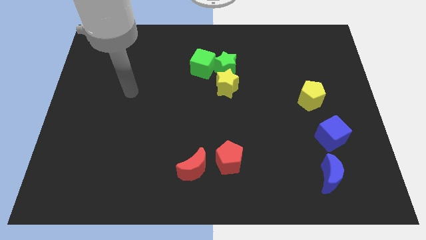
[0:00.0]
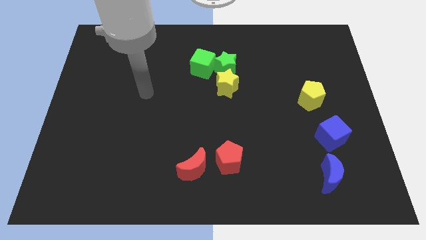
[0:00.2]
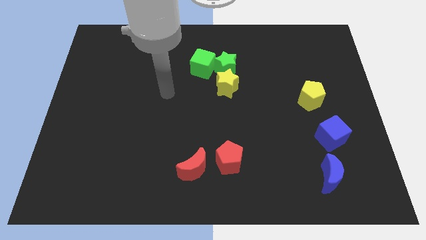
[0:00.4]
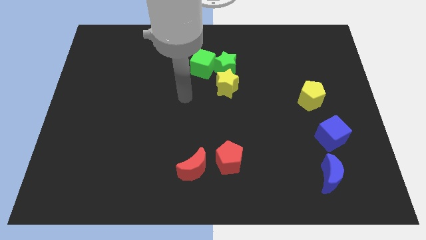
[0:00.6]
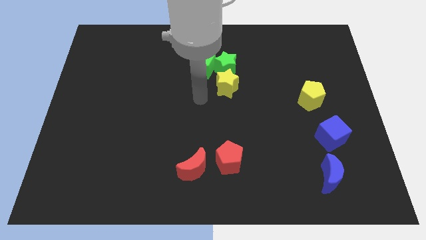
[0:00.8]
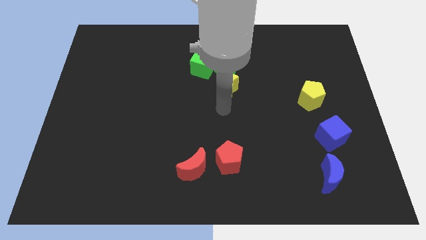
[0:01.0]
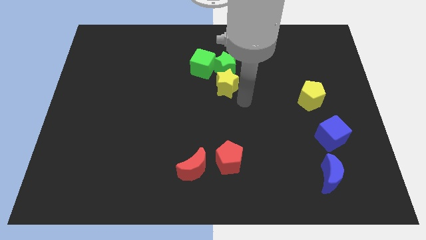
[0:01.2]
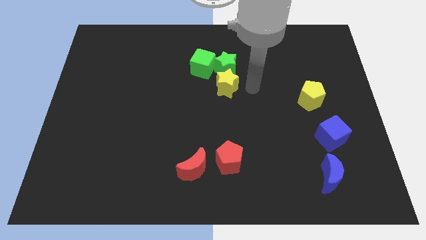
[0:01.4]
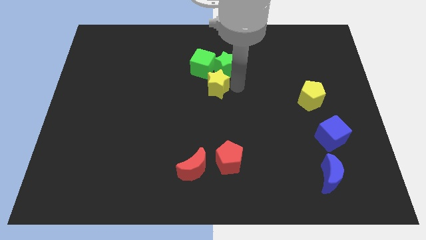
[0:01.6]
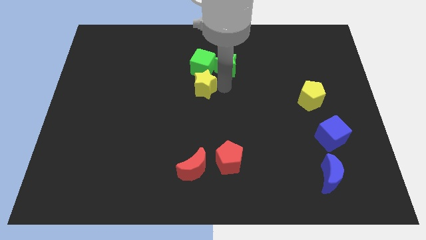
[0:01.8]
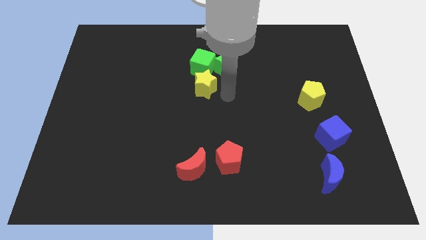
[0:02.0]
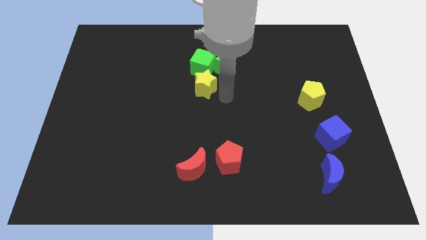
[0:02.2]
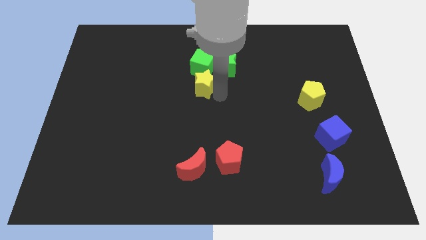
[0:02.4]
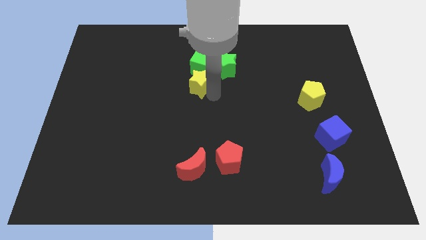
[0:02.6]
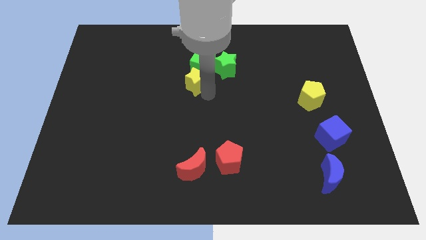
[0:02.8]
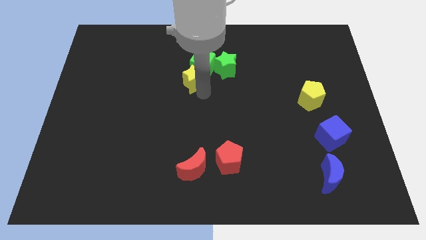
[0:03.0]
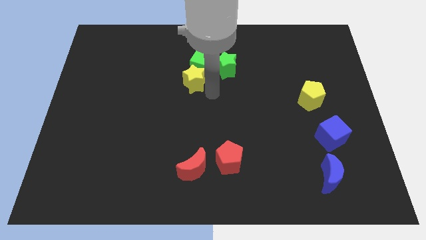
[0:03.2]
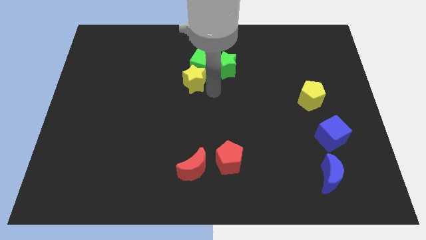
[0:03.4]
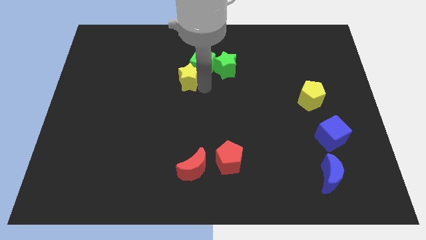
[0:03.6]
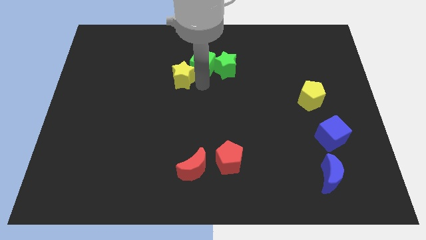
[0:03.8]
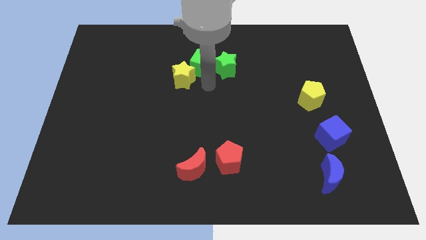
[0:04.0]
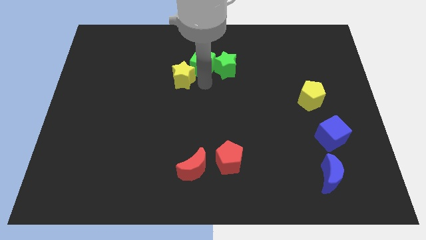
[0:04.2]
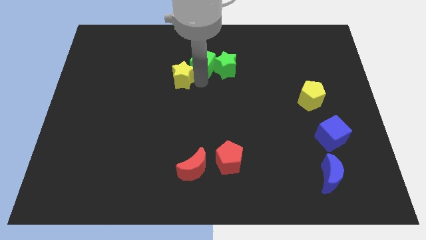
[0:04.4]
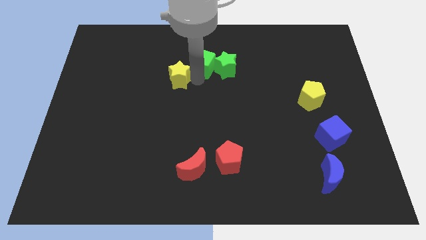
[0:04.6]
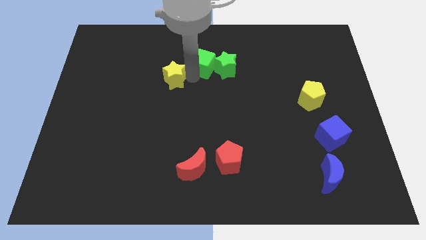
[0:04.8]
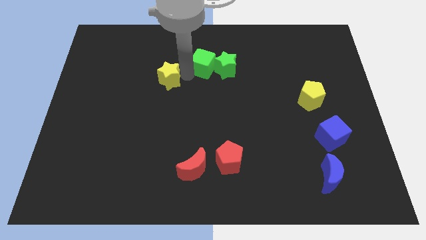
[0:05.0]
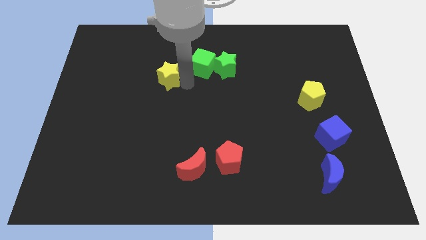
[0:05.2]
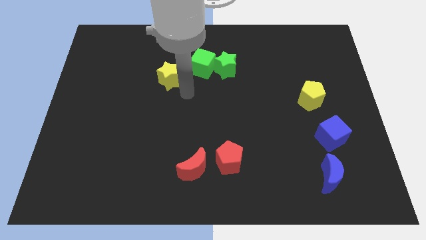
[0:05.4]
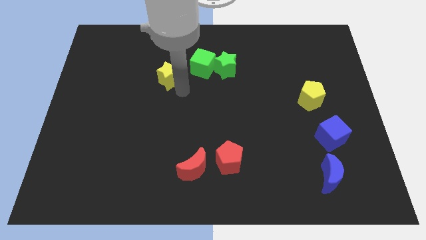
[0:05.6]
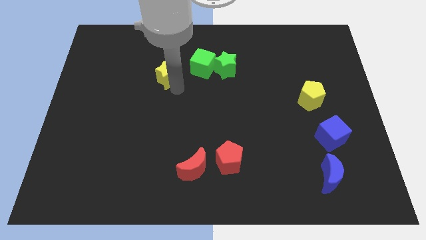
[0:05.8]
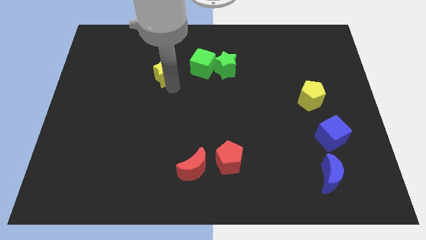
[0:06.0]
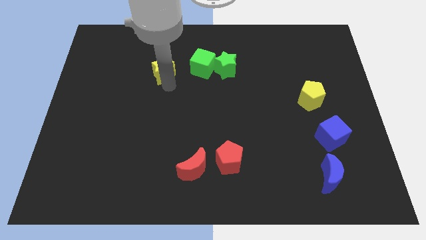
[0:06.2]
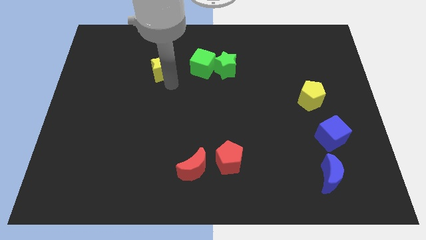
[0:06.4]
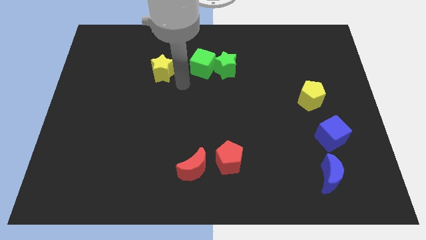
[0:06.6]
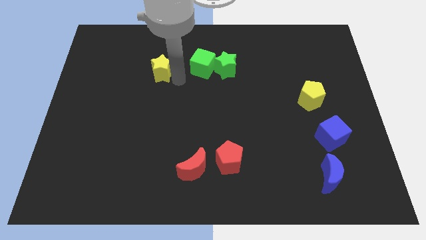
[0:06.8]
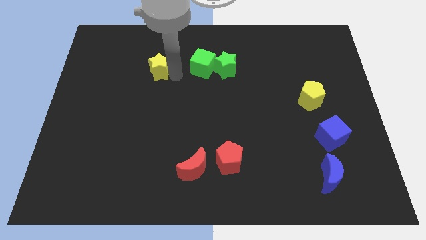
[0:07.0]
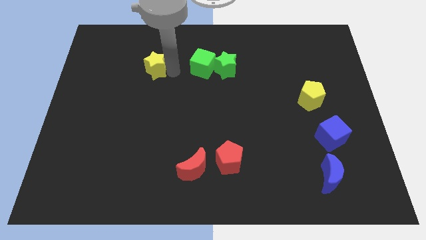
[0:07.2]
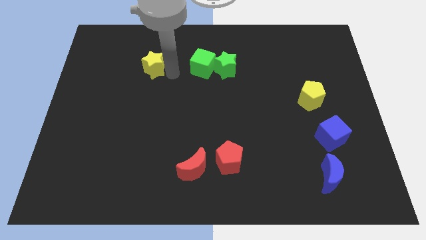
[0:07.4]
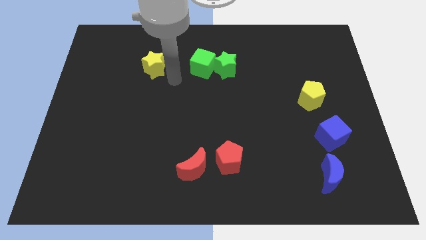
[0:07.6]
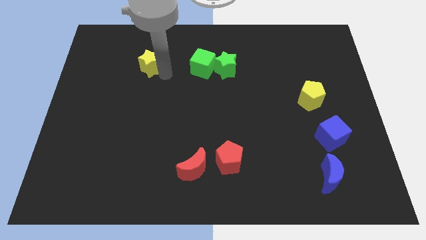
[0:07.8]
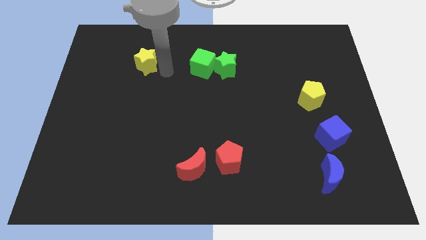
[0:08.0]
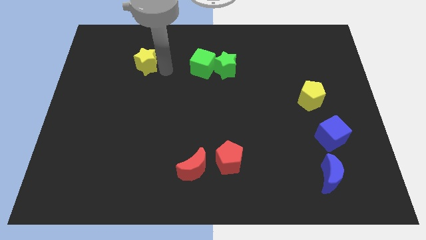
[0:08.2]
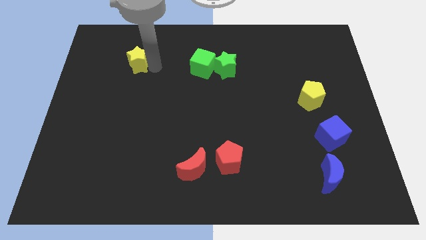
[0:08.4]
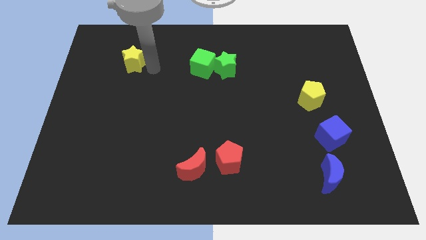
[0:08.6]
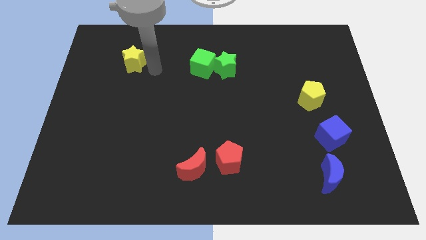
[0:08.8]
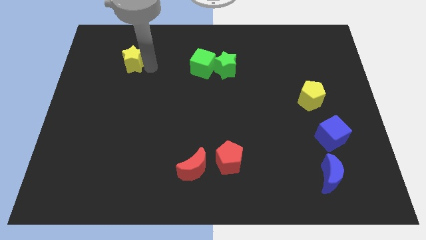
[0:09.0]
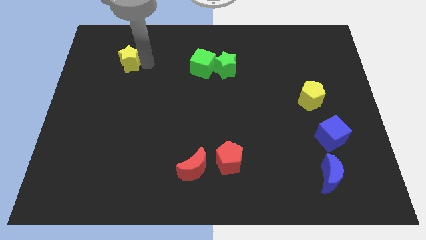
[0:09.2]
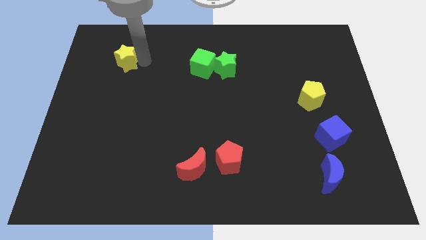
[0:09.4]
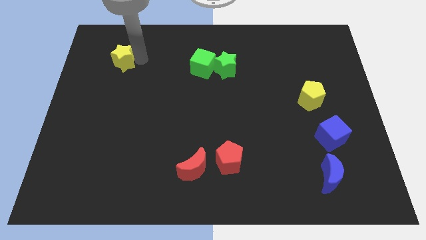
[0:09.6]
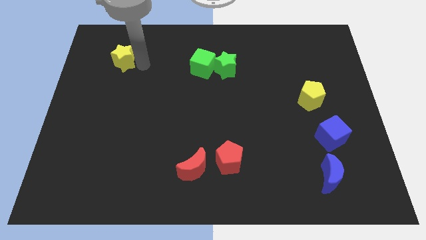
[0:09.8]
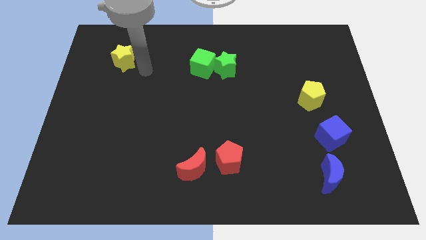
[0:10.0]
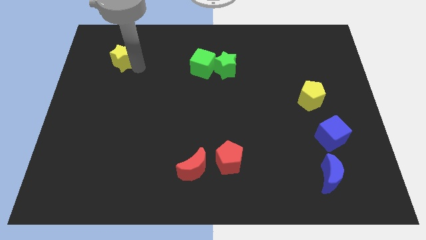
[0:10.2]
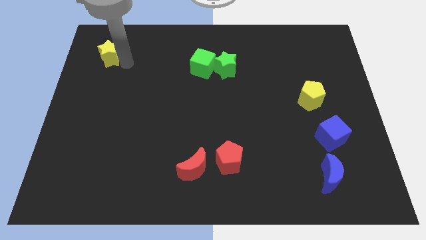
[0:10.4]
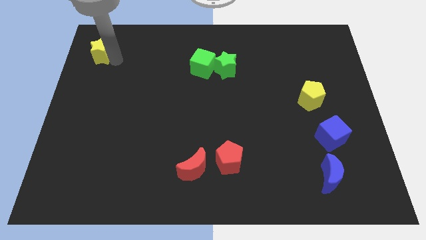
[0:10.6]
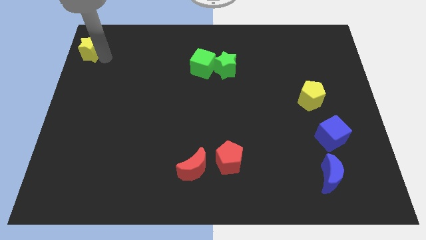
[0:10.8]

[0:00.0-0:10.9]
slide the yellow star to the top left

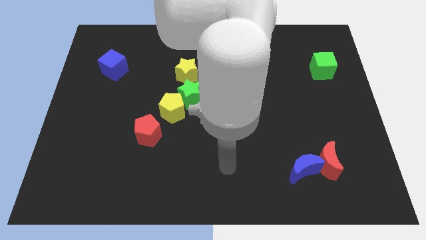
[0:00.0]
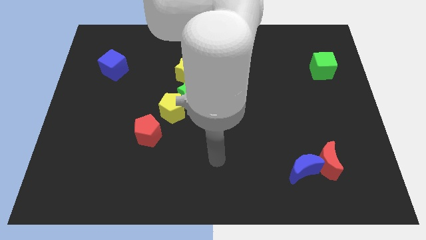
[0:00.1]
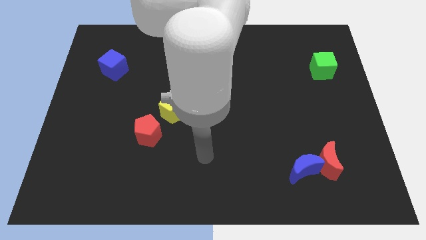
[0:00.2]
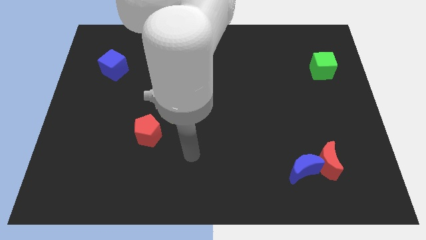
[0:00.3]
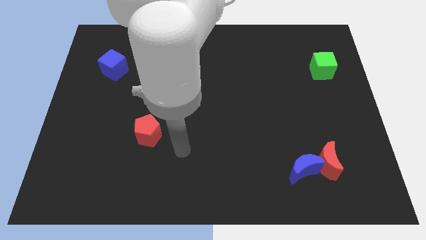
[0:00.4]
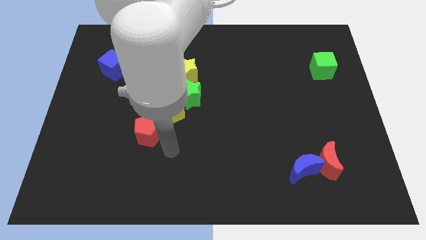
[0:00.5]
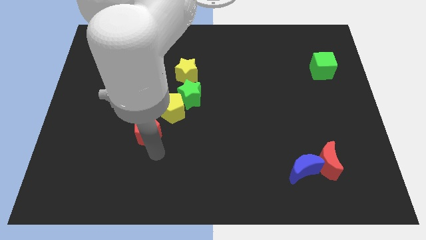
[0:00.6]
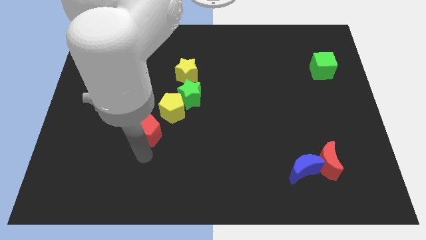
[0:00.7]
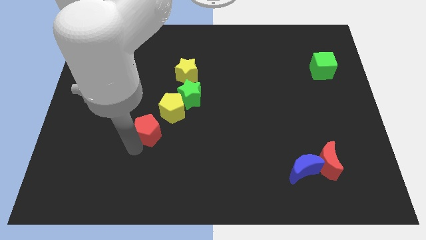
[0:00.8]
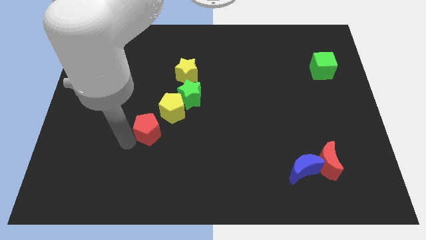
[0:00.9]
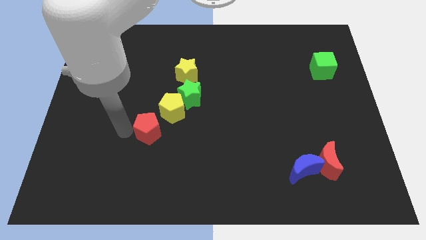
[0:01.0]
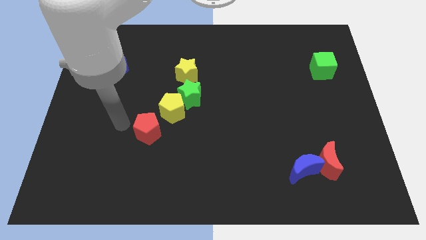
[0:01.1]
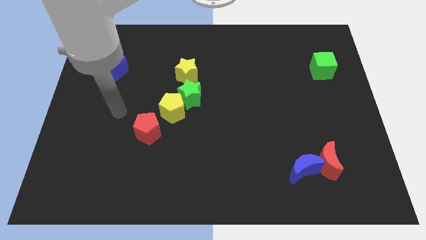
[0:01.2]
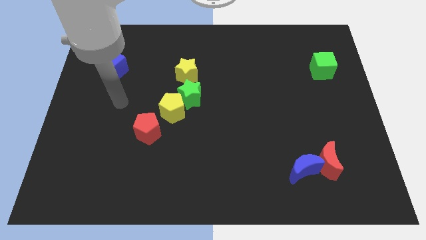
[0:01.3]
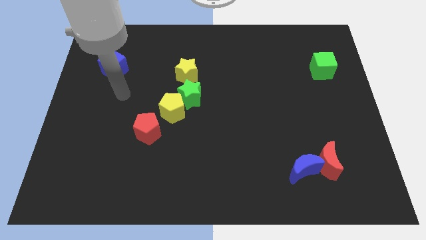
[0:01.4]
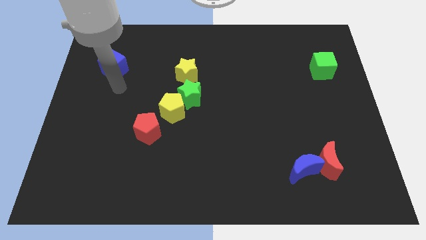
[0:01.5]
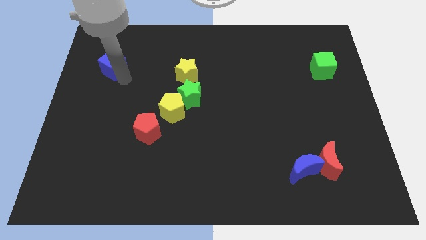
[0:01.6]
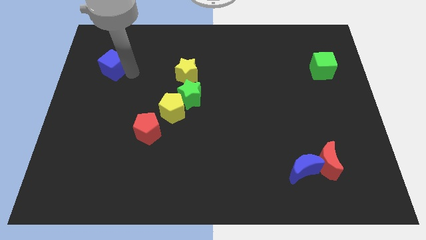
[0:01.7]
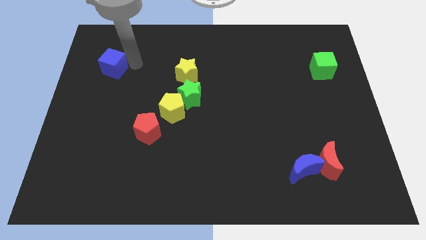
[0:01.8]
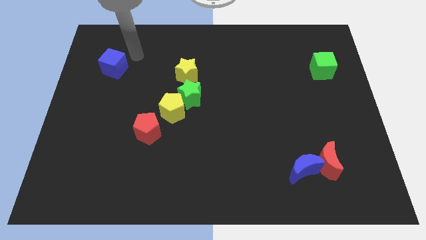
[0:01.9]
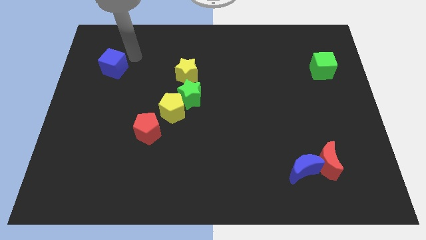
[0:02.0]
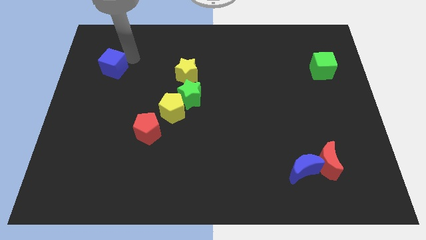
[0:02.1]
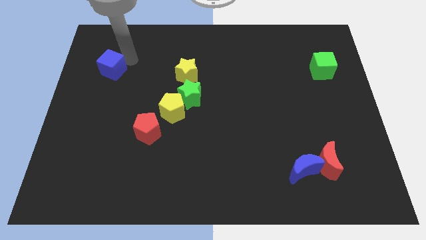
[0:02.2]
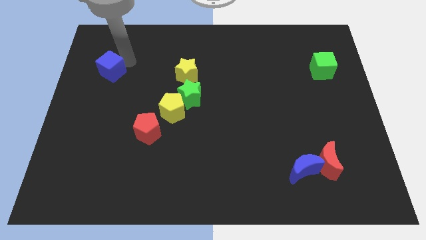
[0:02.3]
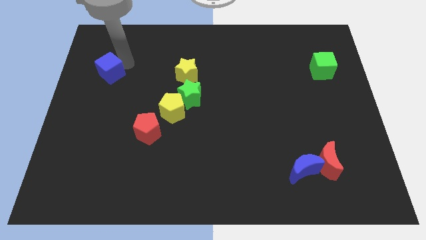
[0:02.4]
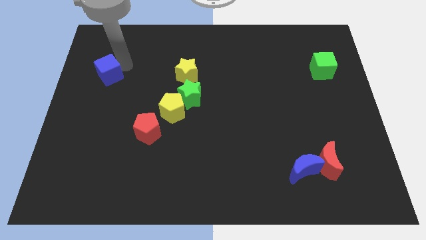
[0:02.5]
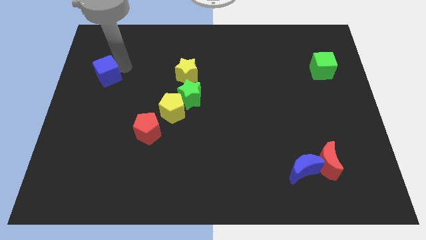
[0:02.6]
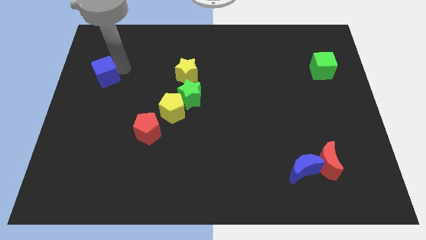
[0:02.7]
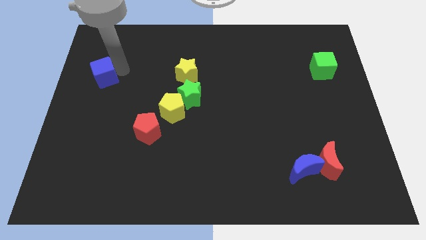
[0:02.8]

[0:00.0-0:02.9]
move the blue cube to the left side of the board
